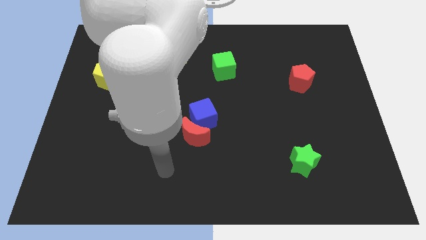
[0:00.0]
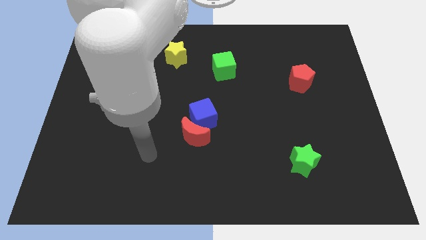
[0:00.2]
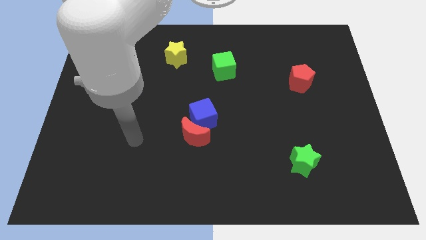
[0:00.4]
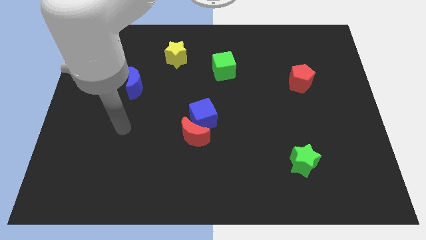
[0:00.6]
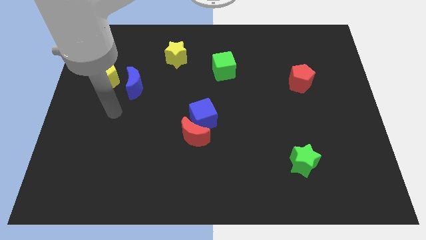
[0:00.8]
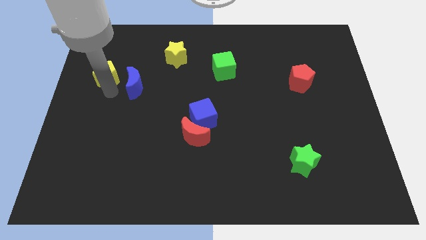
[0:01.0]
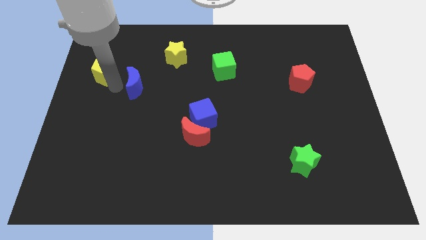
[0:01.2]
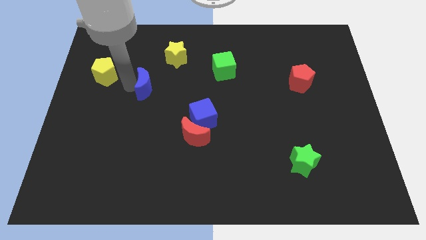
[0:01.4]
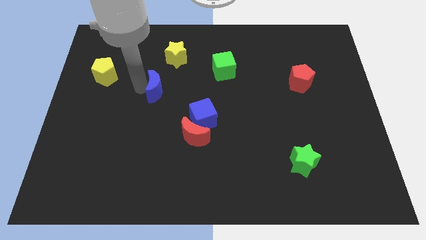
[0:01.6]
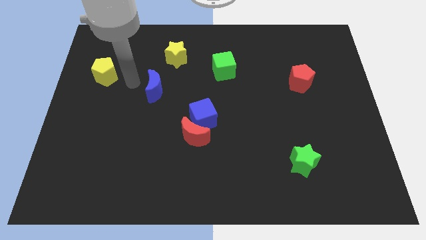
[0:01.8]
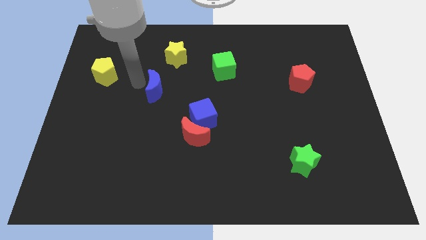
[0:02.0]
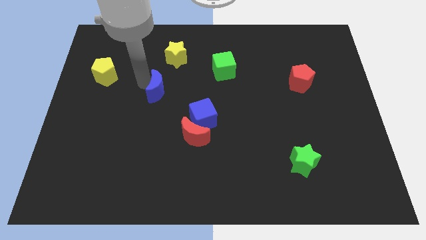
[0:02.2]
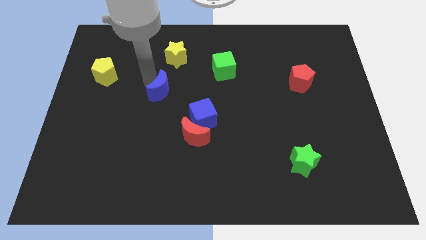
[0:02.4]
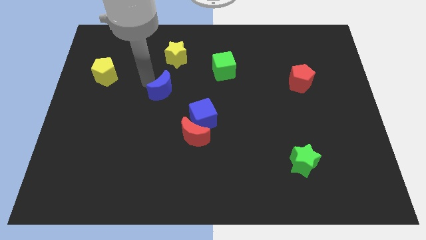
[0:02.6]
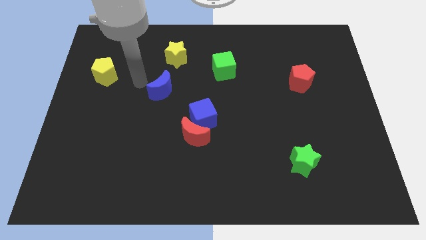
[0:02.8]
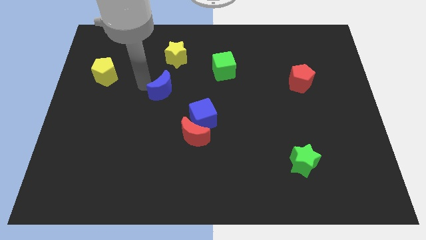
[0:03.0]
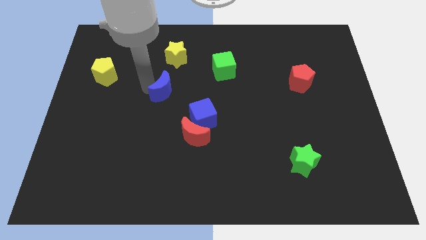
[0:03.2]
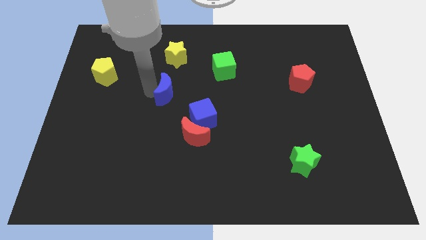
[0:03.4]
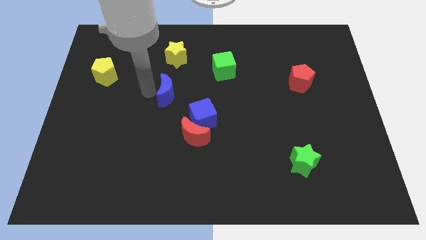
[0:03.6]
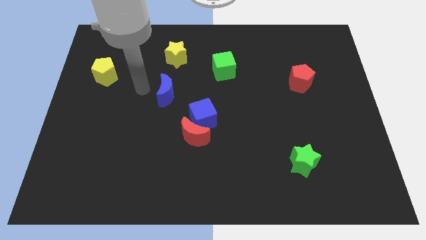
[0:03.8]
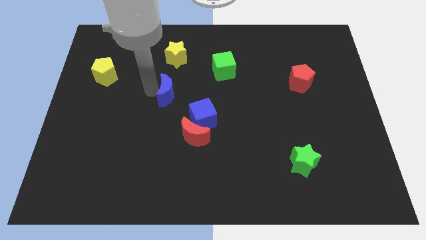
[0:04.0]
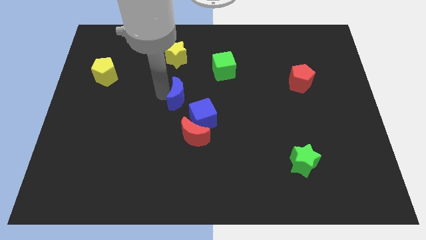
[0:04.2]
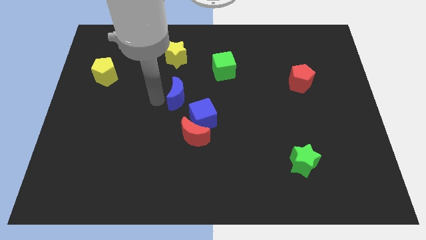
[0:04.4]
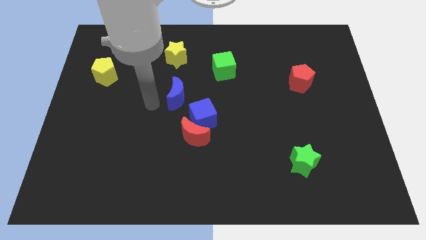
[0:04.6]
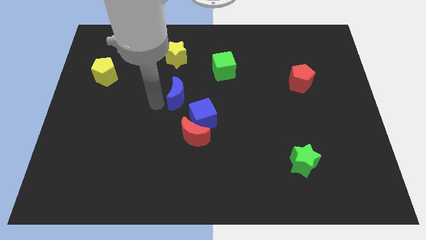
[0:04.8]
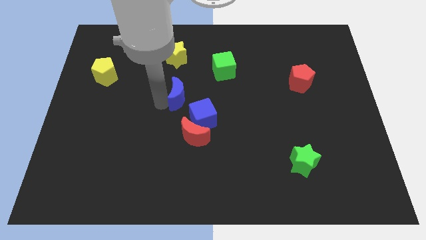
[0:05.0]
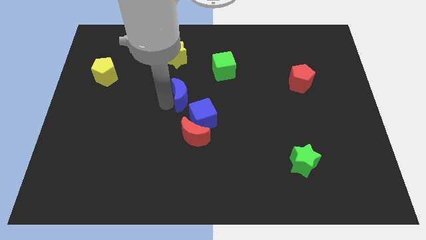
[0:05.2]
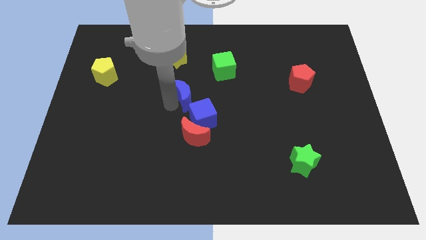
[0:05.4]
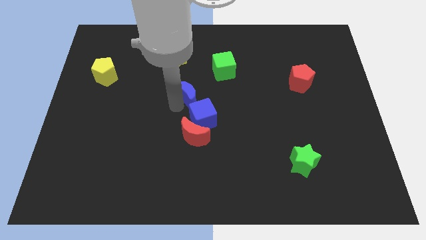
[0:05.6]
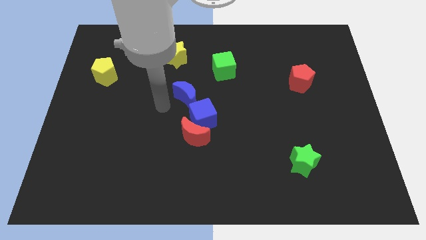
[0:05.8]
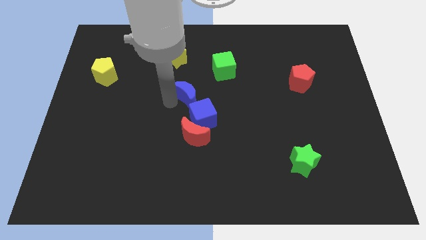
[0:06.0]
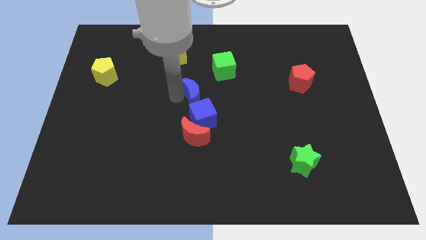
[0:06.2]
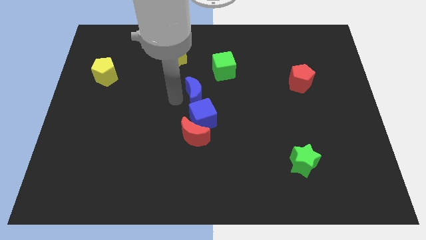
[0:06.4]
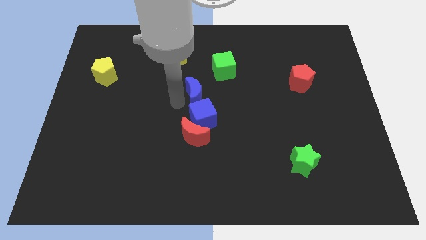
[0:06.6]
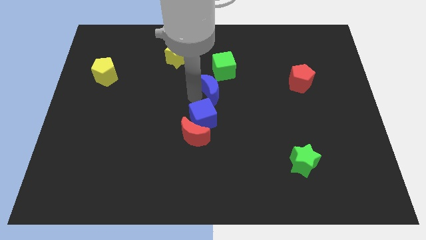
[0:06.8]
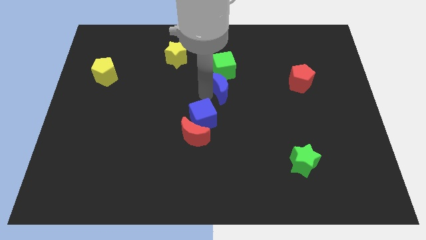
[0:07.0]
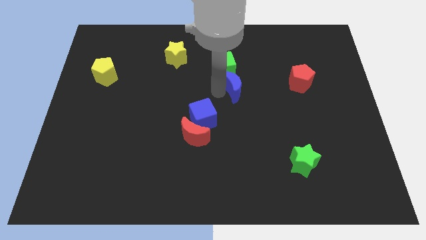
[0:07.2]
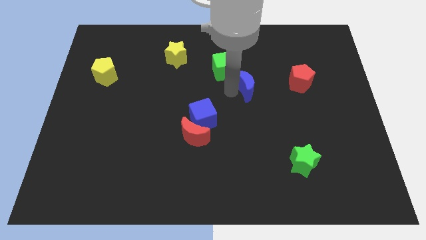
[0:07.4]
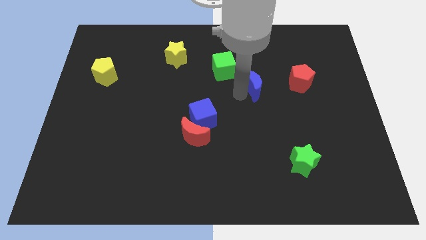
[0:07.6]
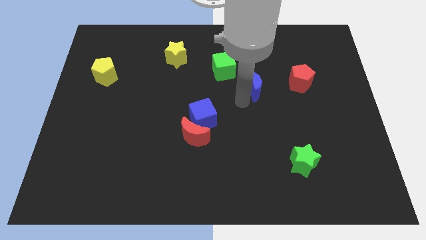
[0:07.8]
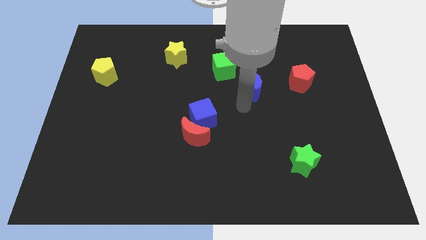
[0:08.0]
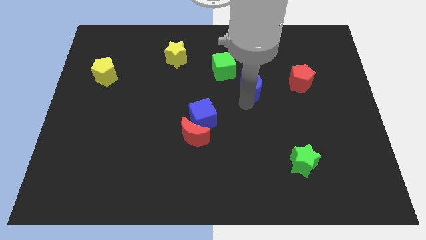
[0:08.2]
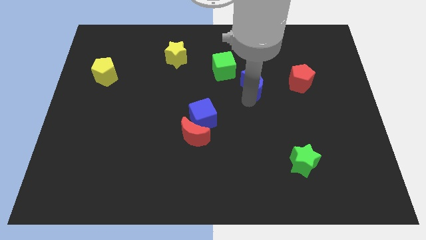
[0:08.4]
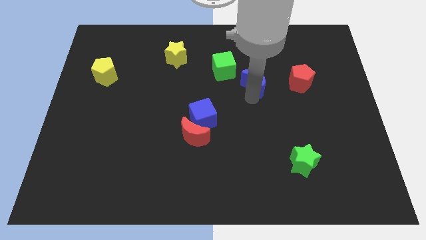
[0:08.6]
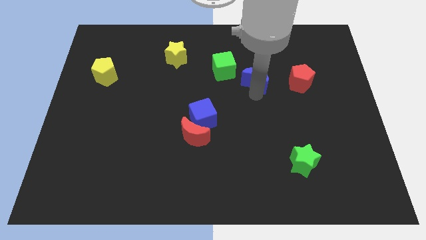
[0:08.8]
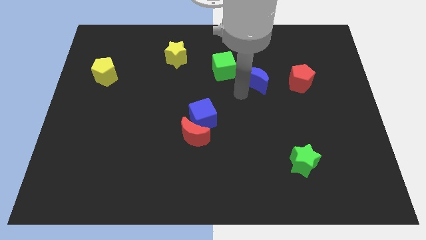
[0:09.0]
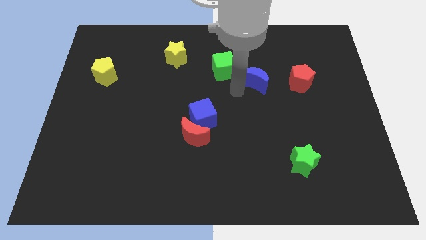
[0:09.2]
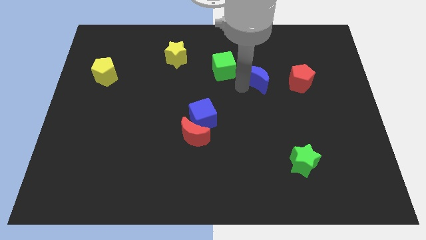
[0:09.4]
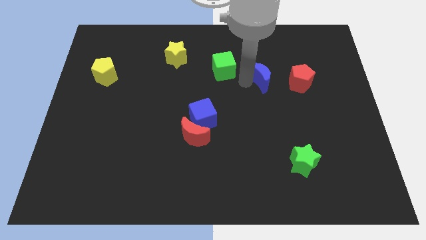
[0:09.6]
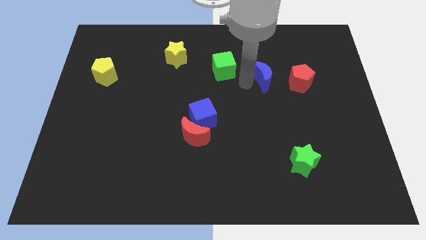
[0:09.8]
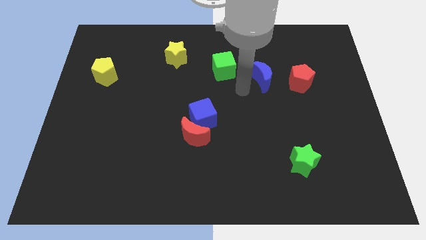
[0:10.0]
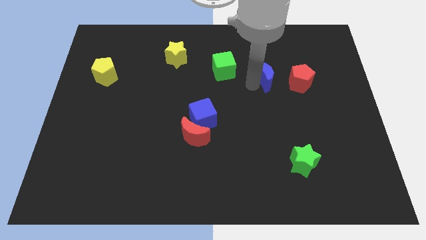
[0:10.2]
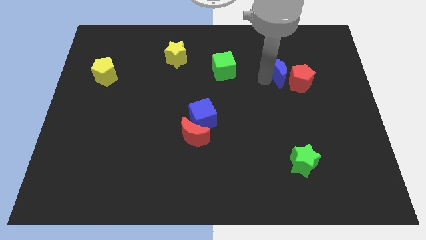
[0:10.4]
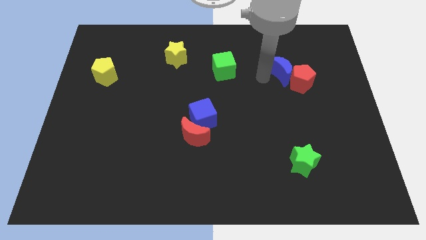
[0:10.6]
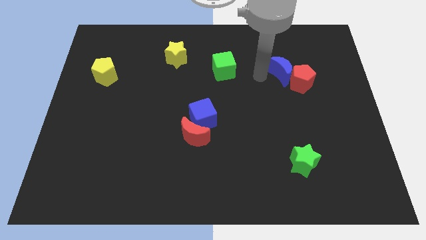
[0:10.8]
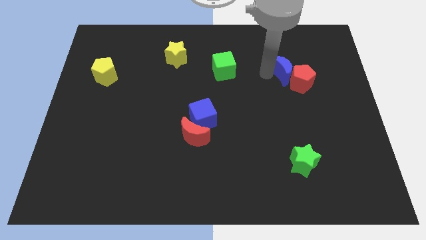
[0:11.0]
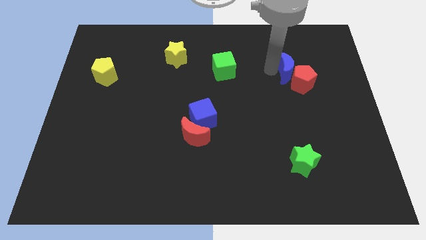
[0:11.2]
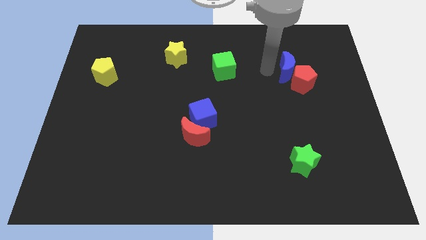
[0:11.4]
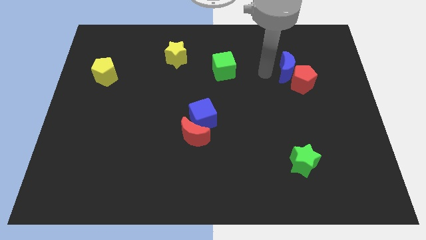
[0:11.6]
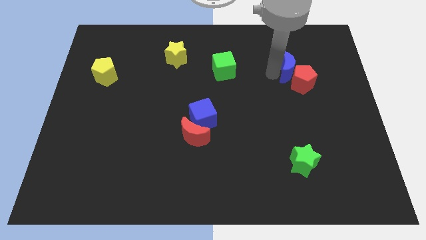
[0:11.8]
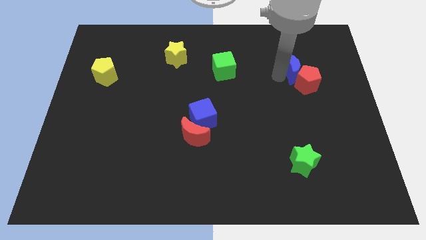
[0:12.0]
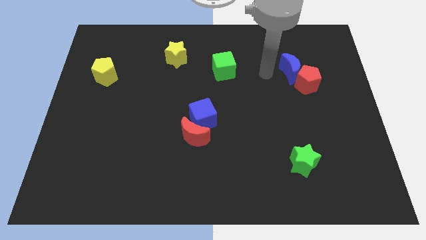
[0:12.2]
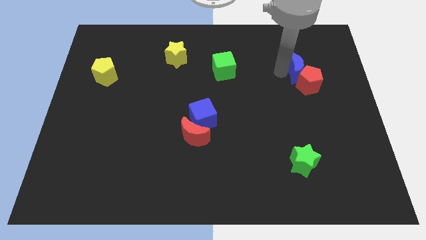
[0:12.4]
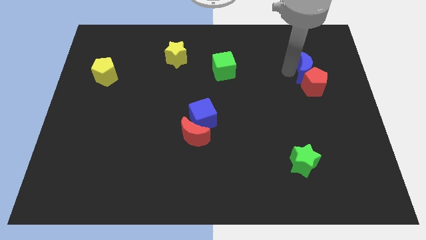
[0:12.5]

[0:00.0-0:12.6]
put the blue moon to the top right of the red pentagon

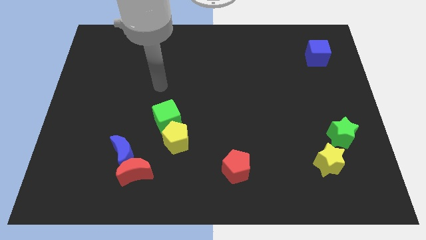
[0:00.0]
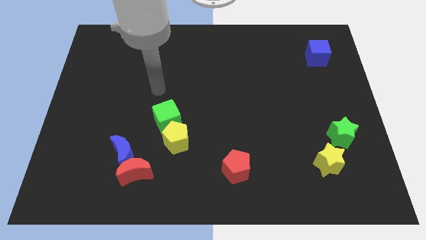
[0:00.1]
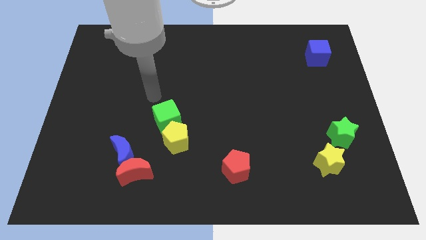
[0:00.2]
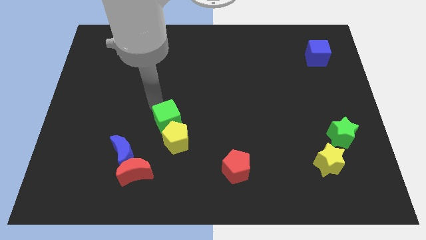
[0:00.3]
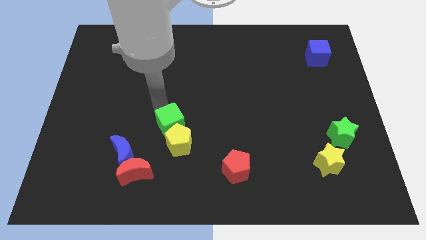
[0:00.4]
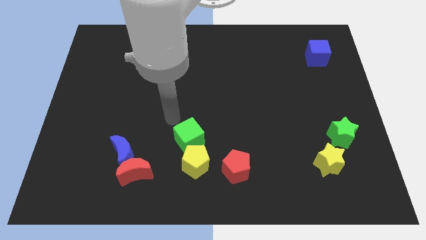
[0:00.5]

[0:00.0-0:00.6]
slide the yellow pentagon just right of the red moon
